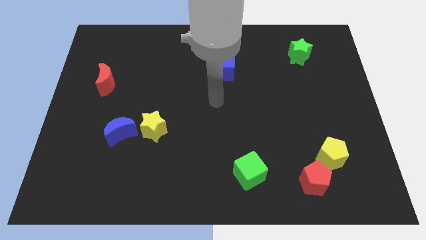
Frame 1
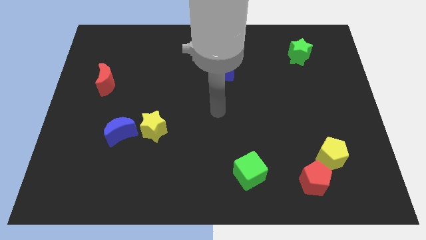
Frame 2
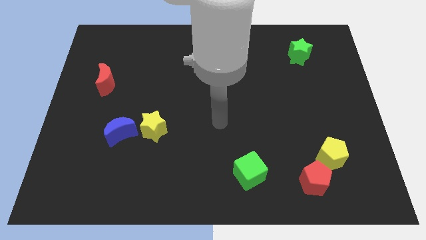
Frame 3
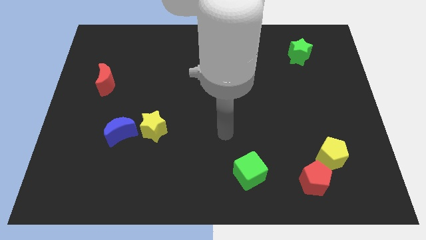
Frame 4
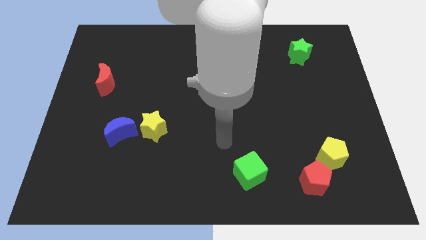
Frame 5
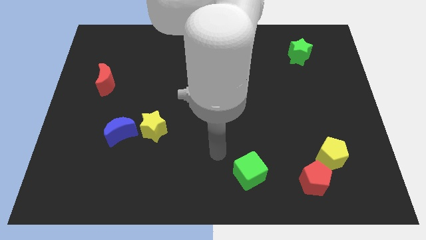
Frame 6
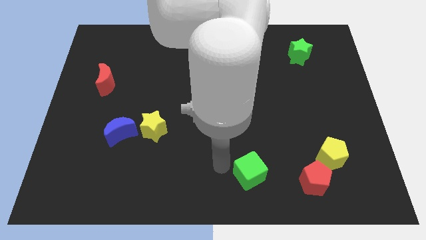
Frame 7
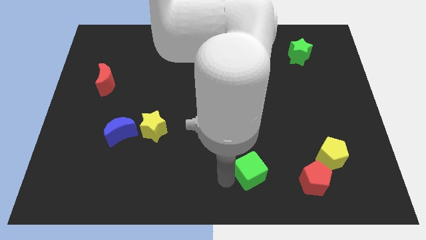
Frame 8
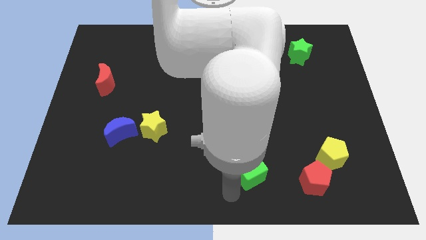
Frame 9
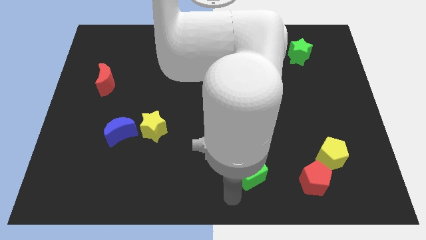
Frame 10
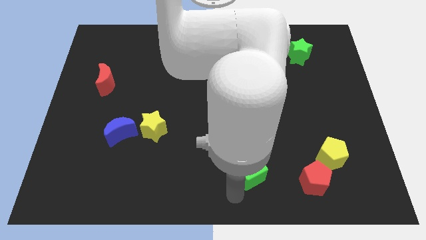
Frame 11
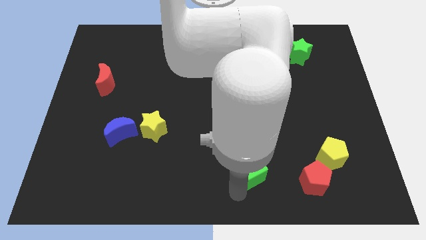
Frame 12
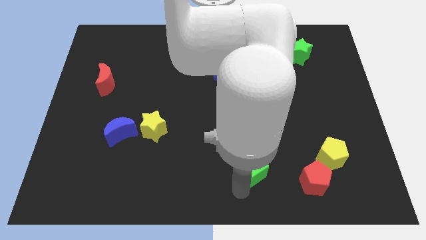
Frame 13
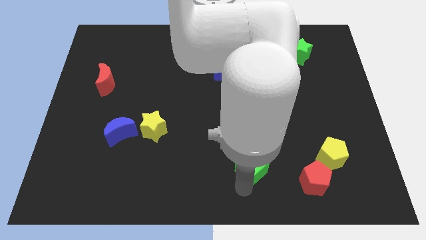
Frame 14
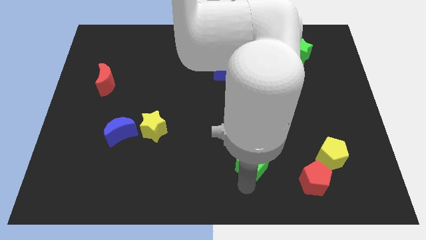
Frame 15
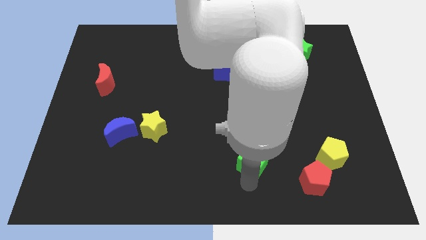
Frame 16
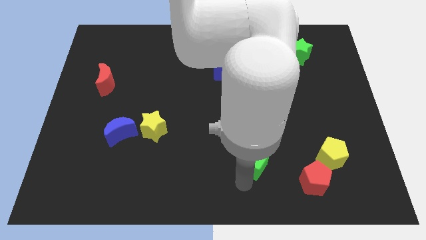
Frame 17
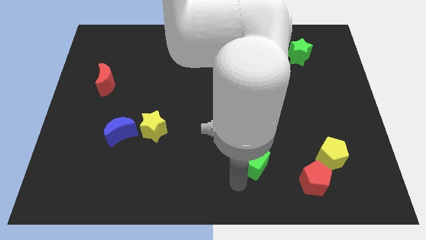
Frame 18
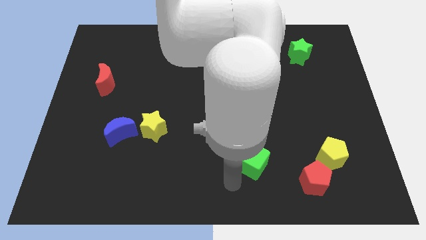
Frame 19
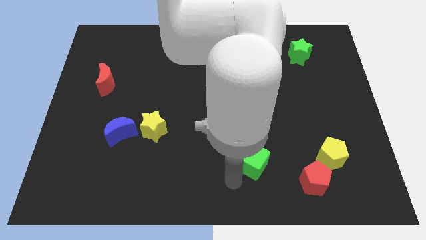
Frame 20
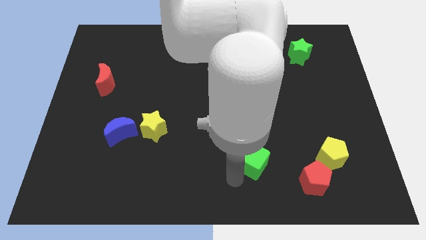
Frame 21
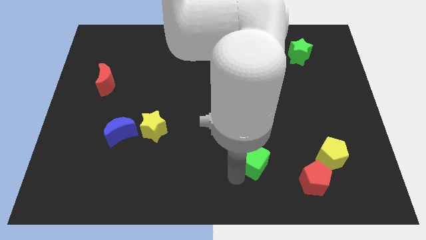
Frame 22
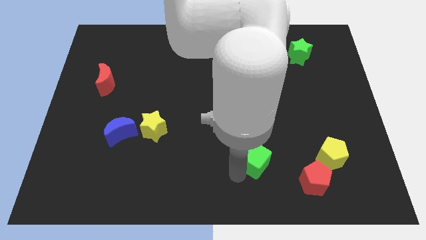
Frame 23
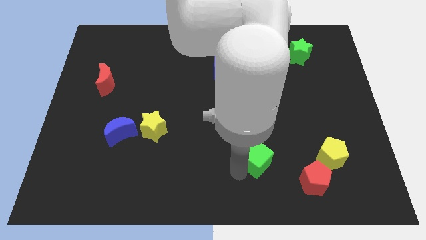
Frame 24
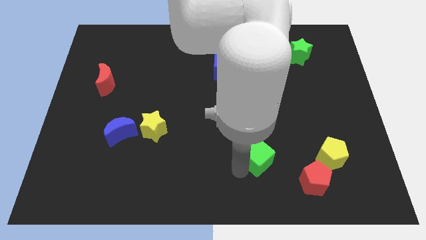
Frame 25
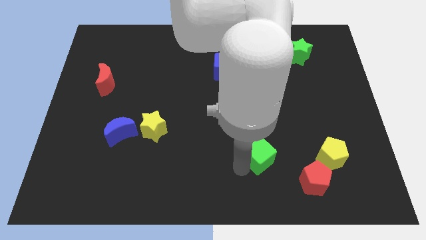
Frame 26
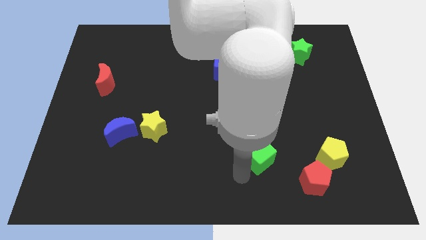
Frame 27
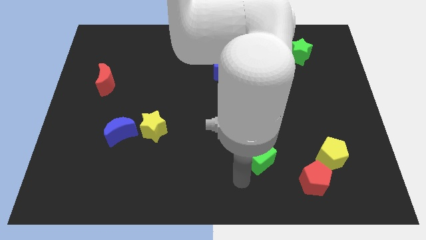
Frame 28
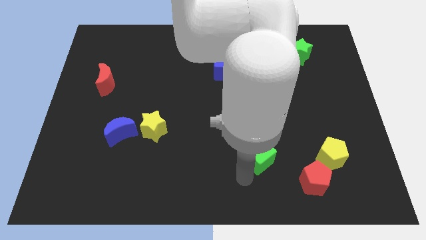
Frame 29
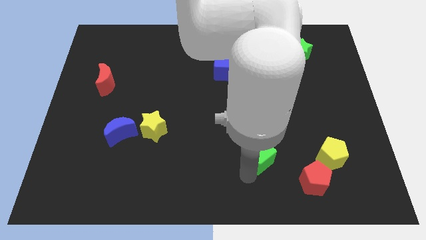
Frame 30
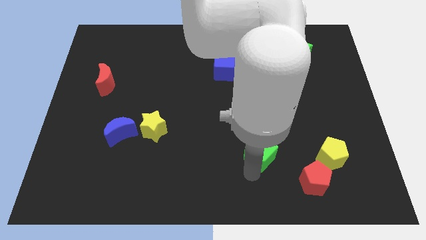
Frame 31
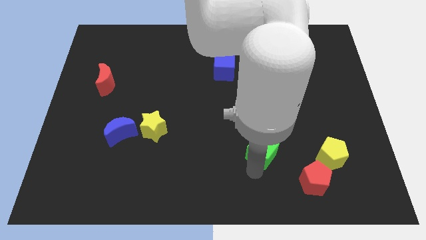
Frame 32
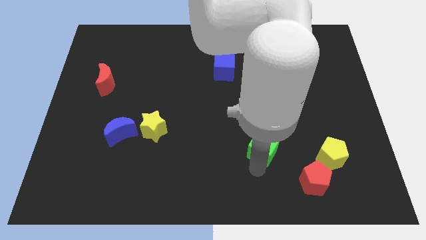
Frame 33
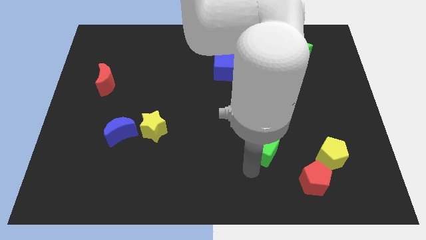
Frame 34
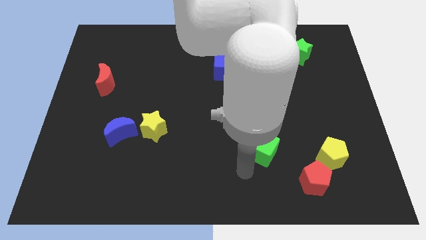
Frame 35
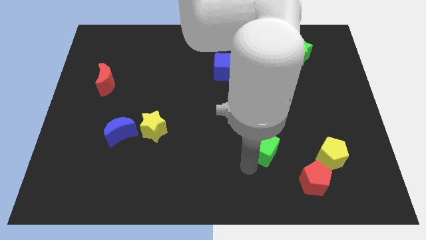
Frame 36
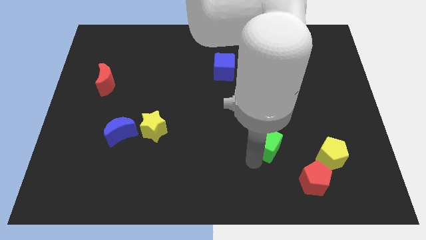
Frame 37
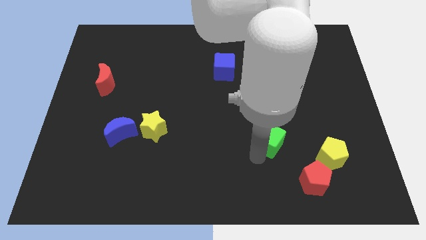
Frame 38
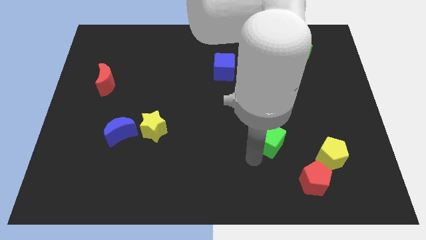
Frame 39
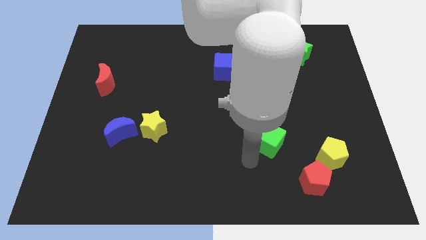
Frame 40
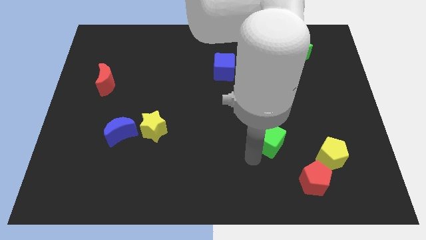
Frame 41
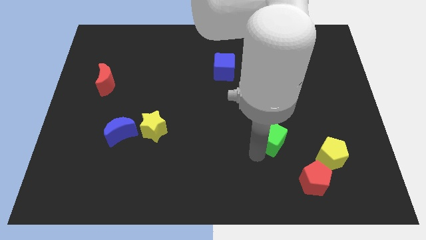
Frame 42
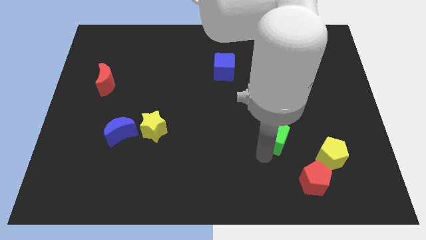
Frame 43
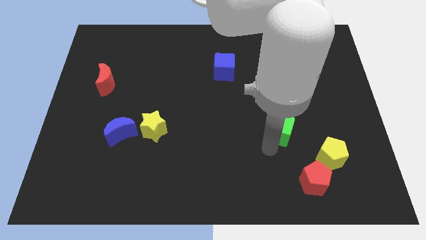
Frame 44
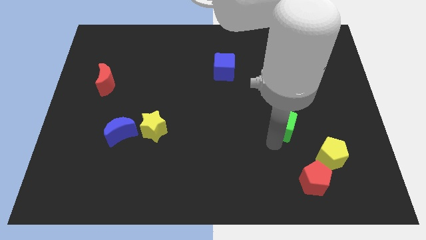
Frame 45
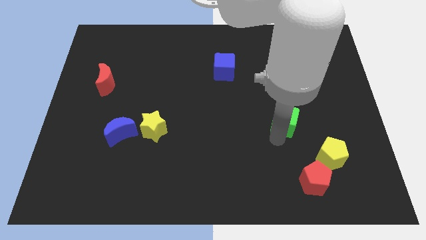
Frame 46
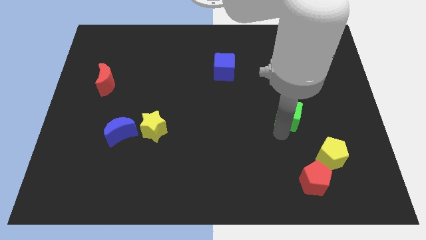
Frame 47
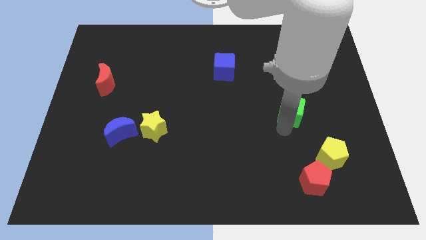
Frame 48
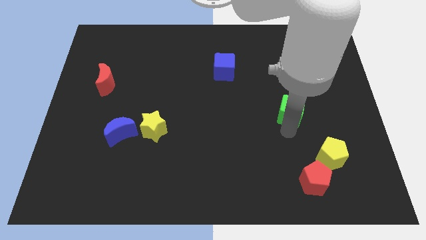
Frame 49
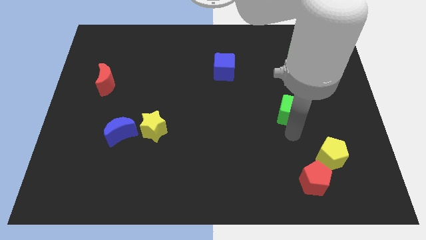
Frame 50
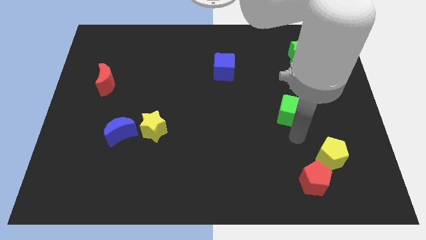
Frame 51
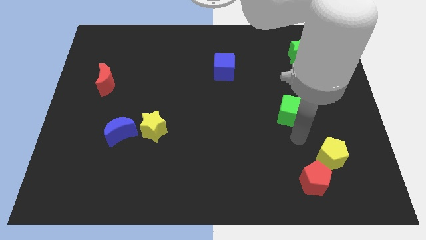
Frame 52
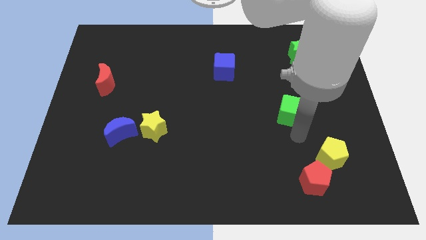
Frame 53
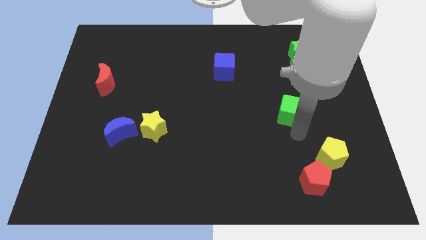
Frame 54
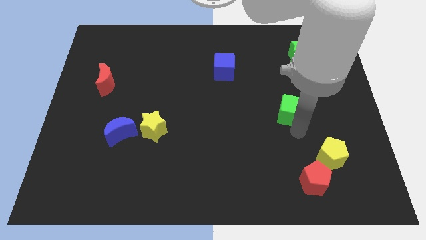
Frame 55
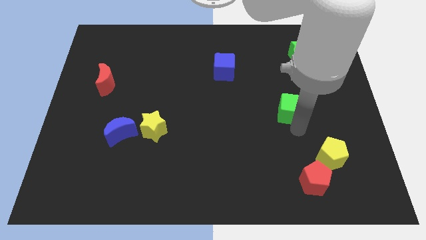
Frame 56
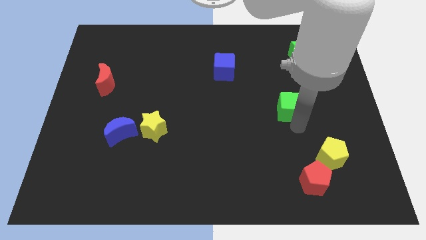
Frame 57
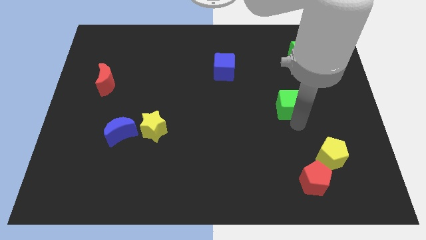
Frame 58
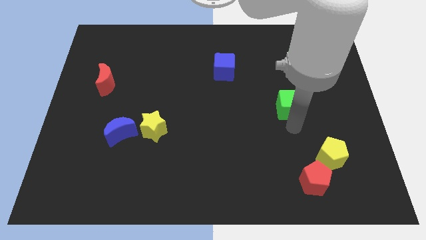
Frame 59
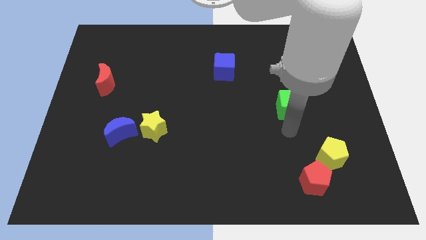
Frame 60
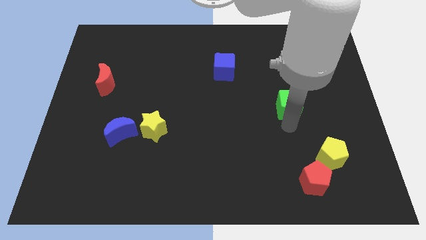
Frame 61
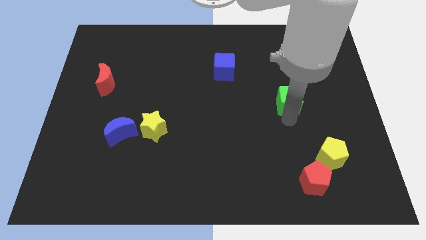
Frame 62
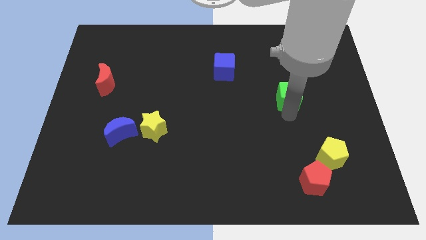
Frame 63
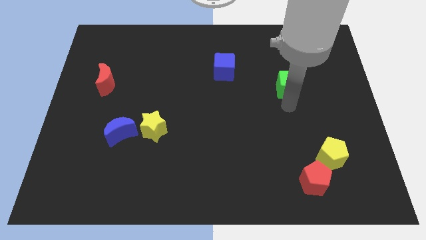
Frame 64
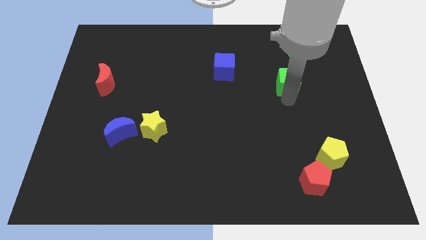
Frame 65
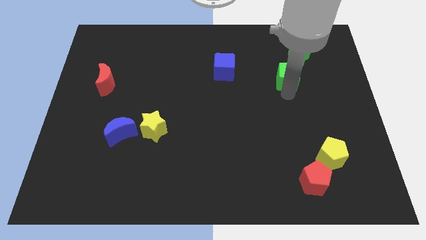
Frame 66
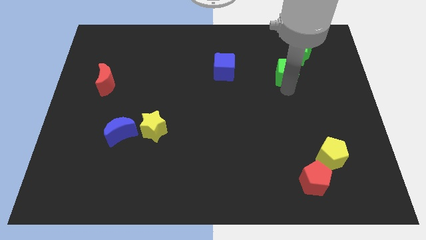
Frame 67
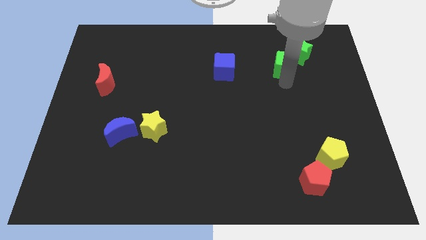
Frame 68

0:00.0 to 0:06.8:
move the green cube towards the green star

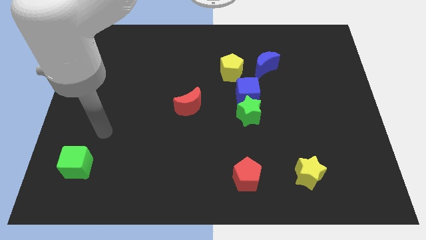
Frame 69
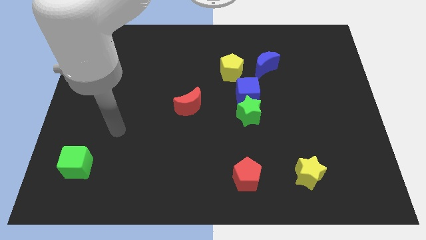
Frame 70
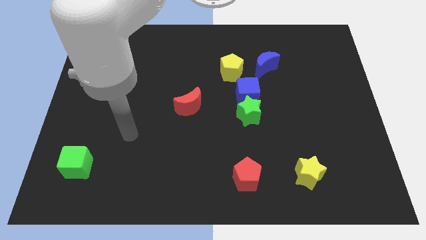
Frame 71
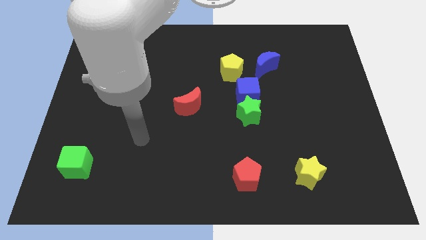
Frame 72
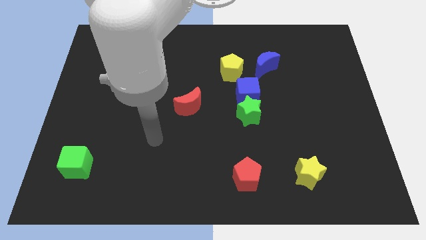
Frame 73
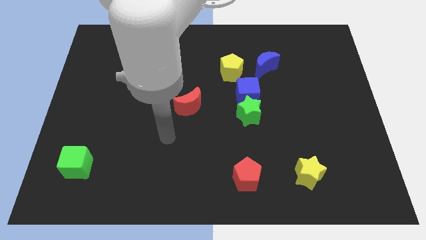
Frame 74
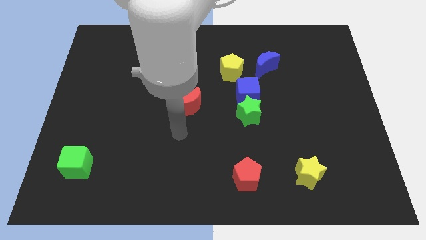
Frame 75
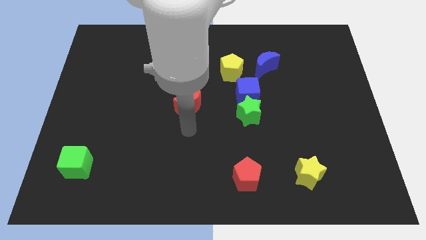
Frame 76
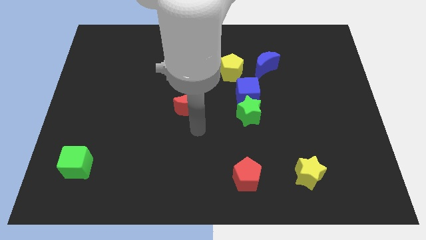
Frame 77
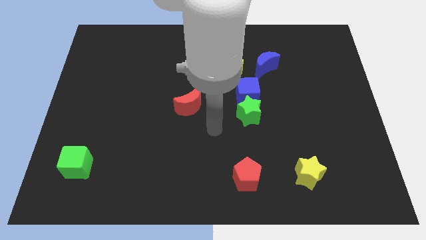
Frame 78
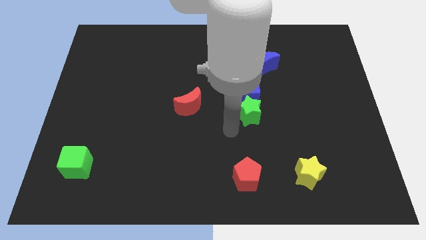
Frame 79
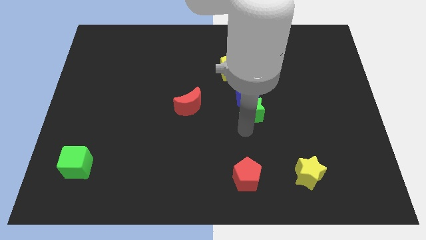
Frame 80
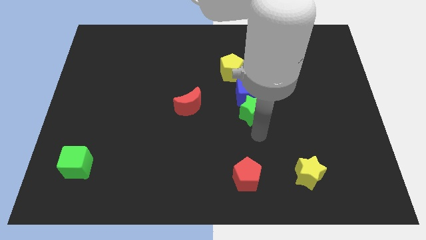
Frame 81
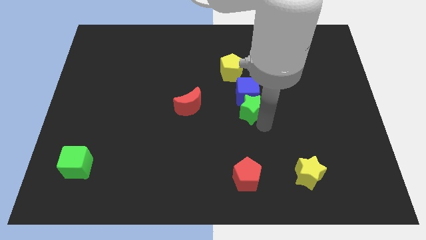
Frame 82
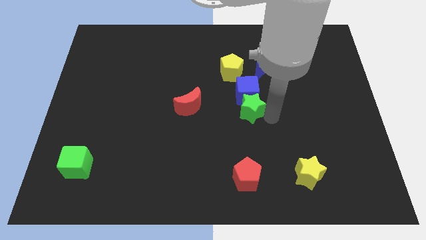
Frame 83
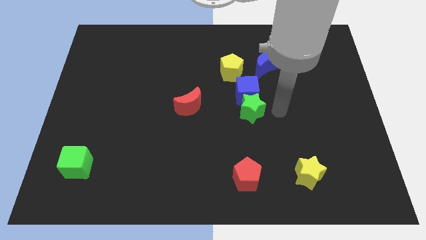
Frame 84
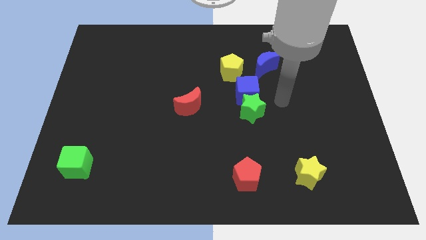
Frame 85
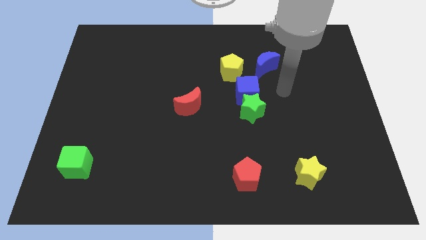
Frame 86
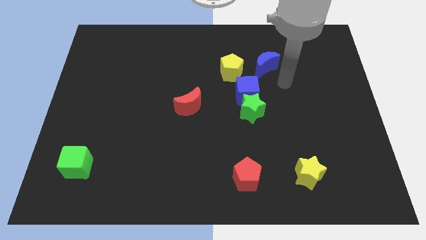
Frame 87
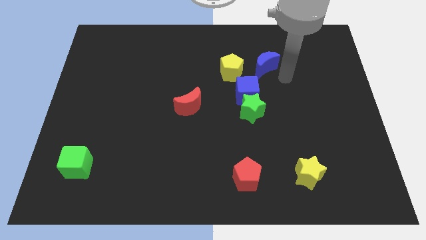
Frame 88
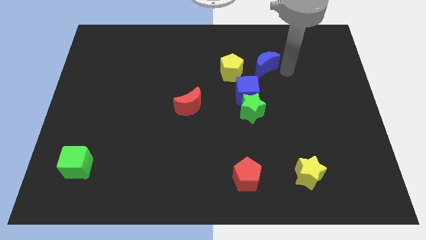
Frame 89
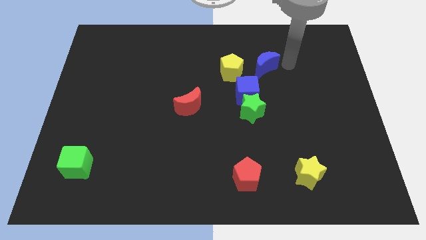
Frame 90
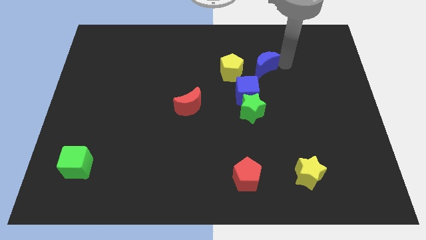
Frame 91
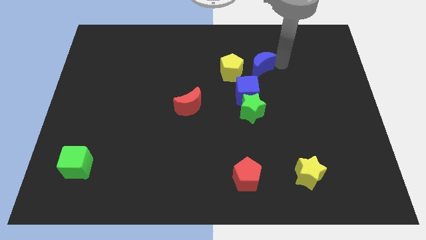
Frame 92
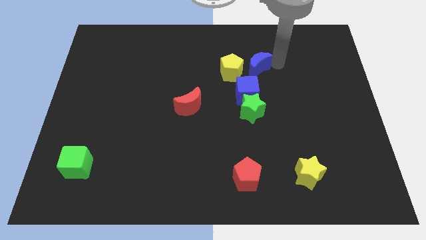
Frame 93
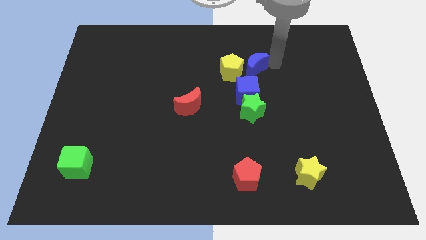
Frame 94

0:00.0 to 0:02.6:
put the blue moon next to the yellow pentagon
